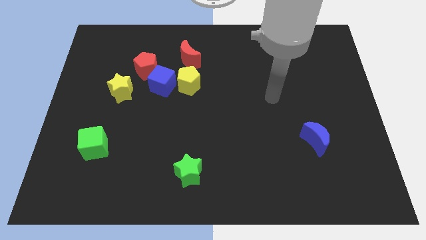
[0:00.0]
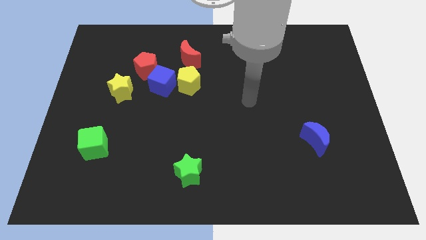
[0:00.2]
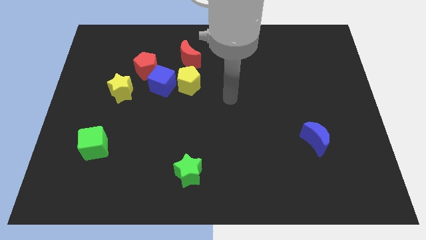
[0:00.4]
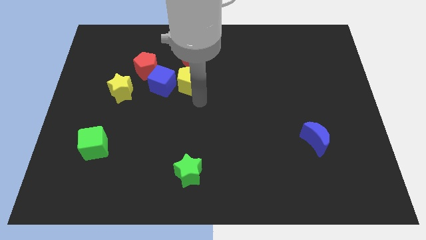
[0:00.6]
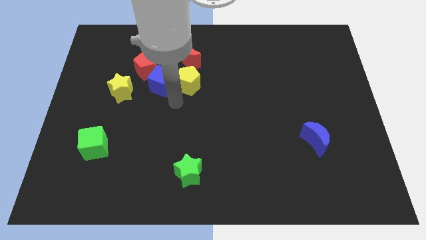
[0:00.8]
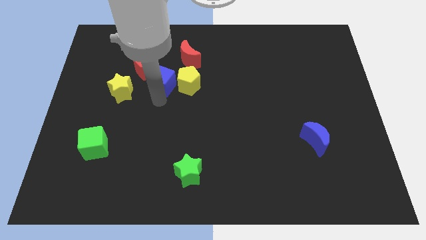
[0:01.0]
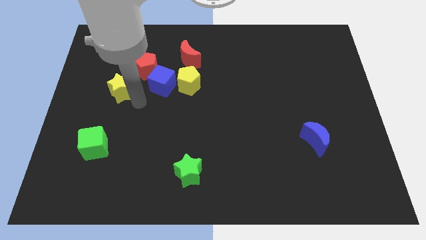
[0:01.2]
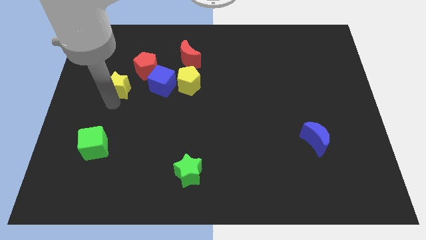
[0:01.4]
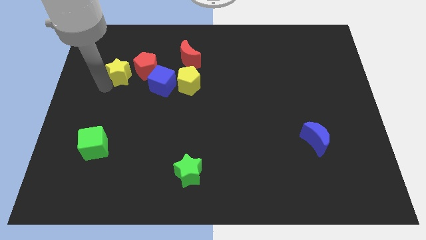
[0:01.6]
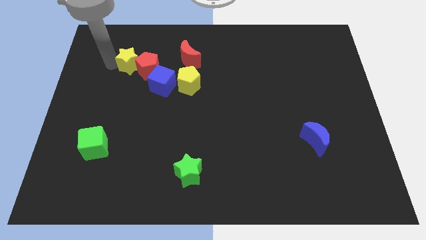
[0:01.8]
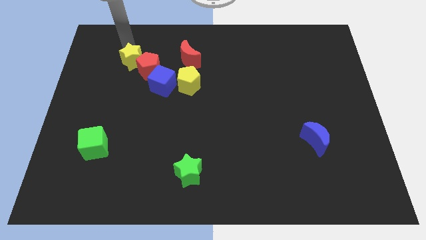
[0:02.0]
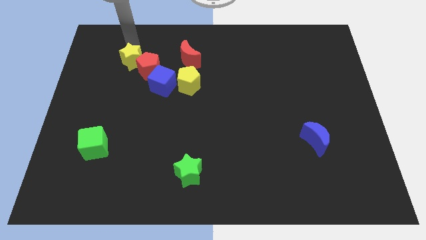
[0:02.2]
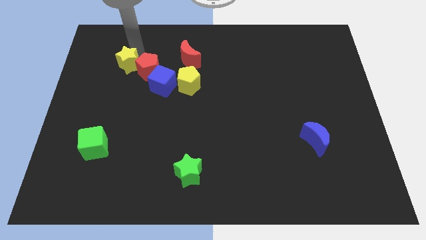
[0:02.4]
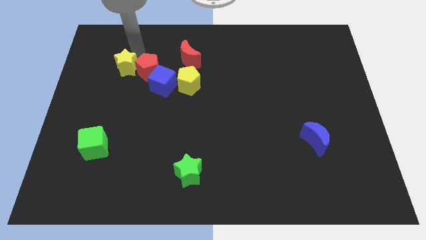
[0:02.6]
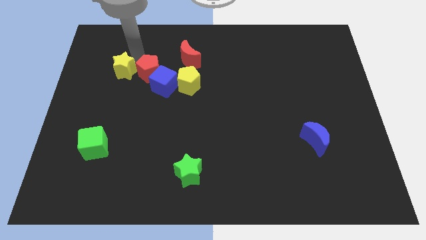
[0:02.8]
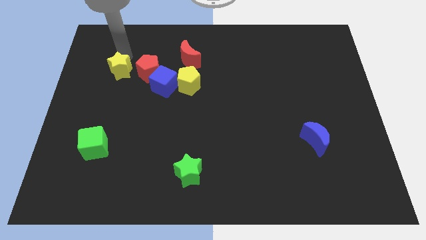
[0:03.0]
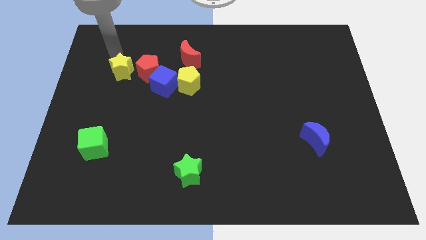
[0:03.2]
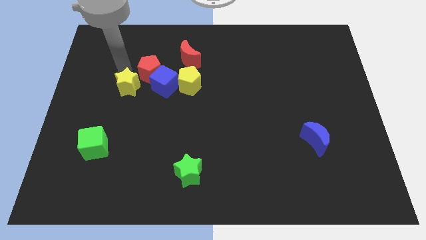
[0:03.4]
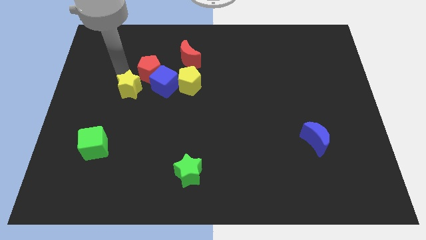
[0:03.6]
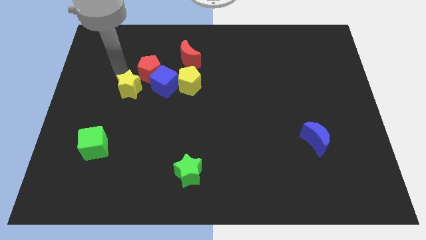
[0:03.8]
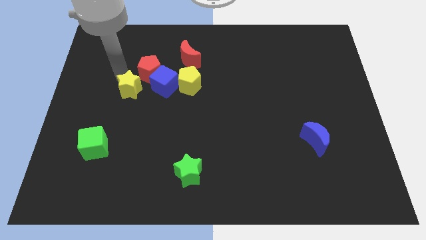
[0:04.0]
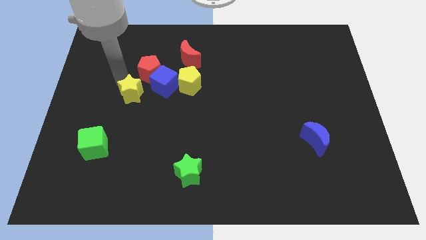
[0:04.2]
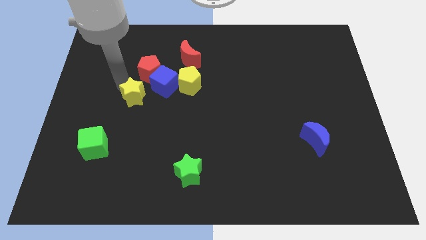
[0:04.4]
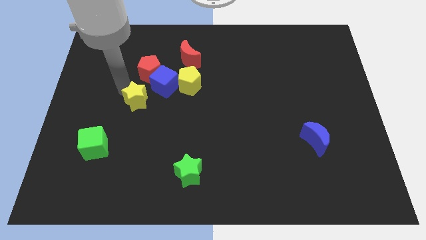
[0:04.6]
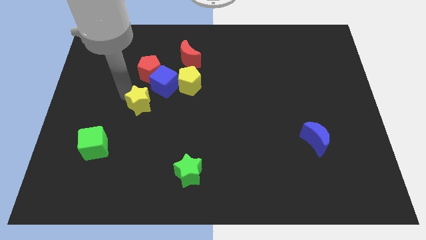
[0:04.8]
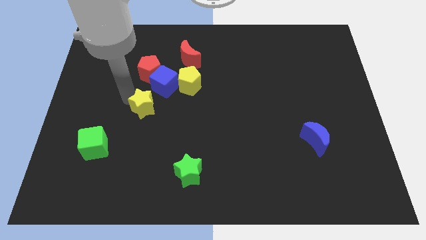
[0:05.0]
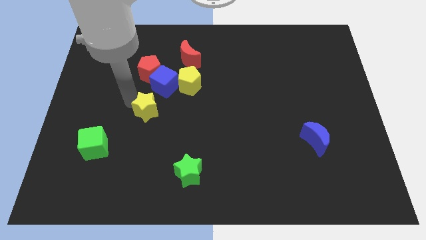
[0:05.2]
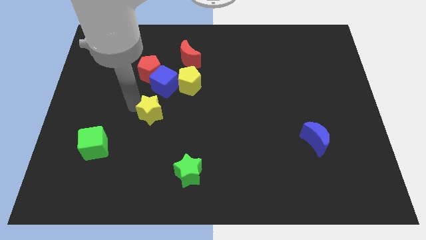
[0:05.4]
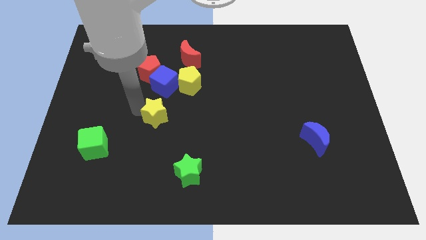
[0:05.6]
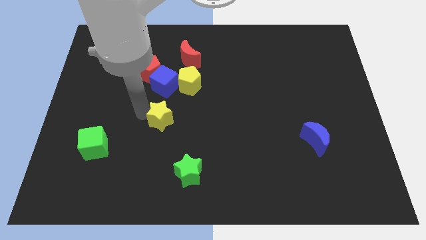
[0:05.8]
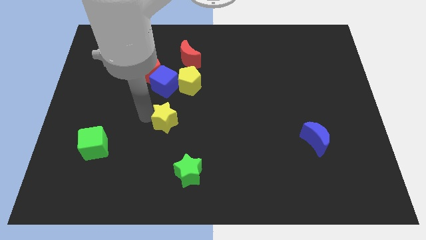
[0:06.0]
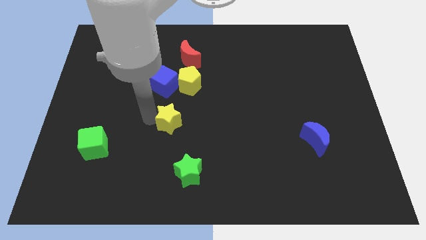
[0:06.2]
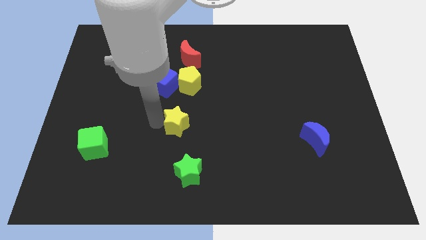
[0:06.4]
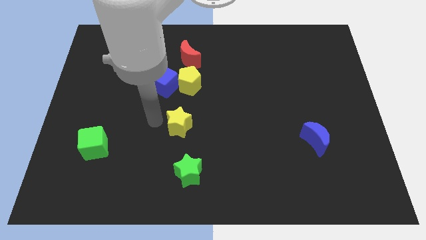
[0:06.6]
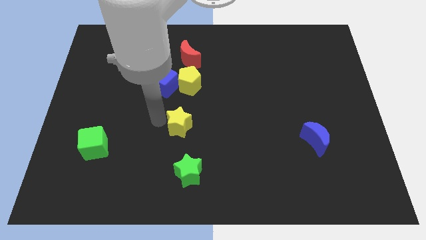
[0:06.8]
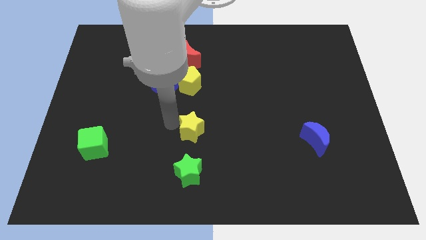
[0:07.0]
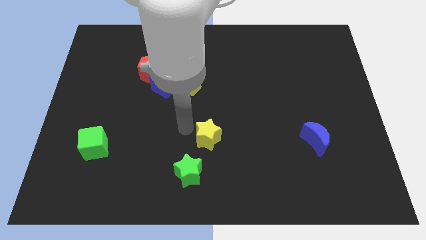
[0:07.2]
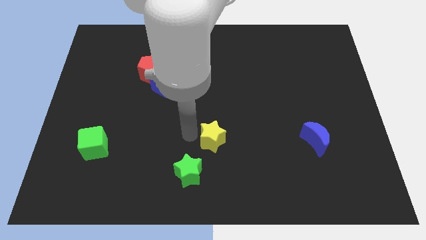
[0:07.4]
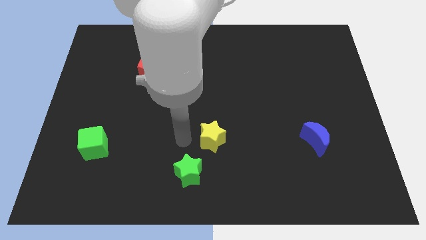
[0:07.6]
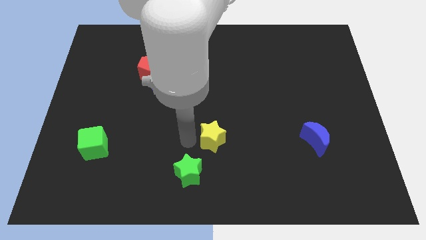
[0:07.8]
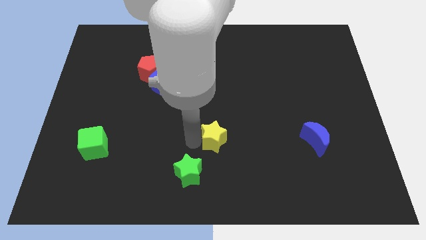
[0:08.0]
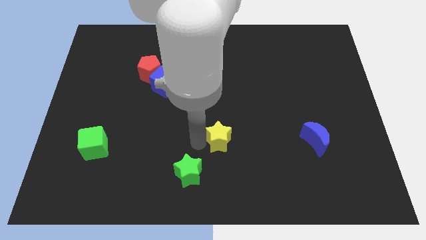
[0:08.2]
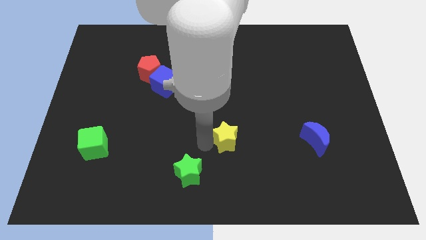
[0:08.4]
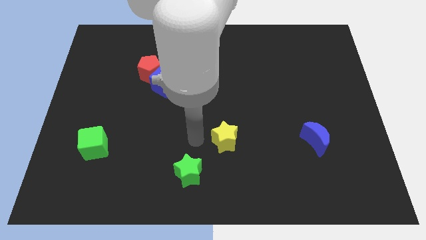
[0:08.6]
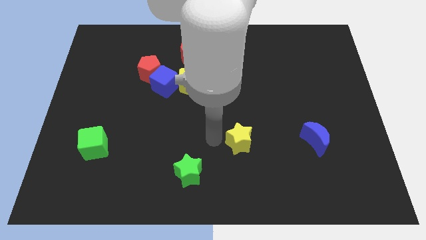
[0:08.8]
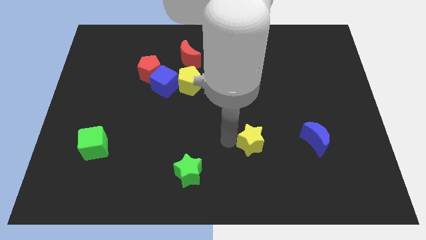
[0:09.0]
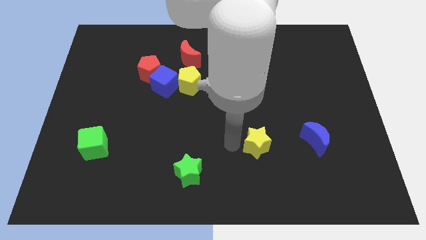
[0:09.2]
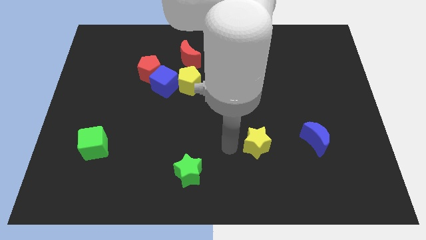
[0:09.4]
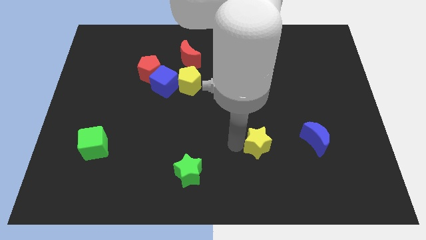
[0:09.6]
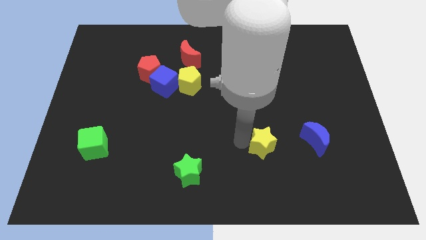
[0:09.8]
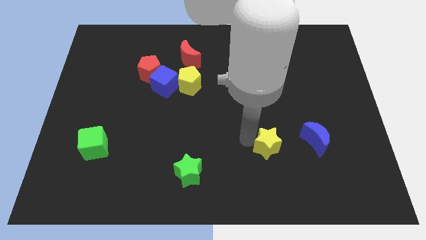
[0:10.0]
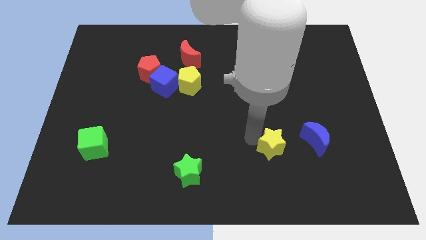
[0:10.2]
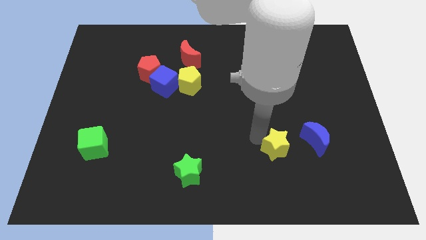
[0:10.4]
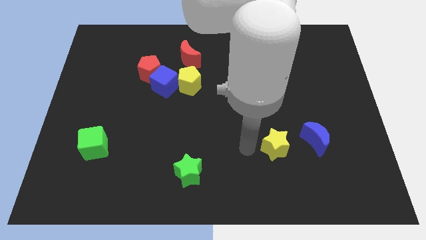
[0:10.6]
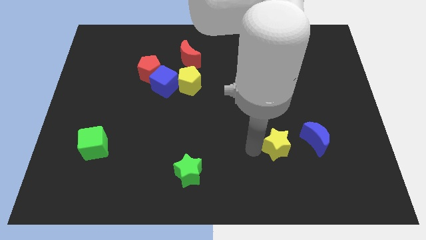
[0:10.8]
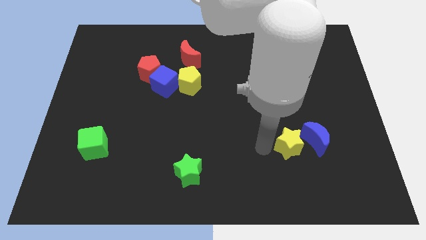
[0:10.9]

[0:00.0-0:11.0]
move the yellow star to the blue moon

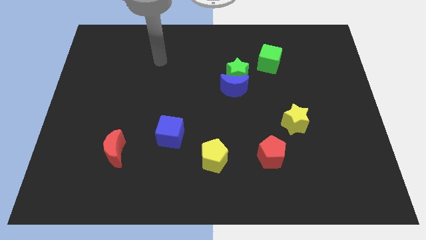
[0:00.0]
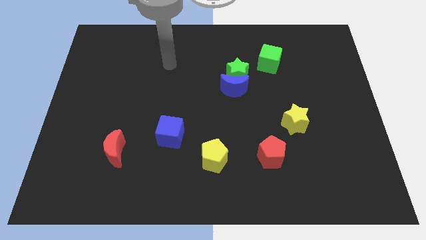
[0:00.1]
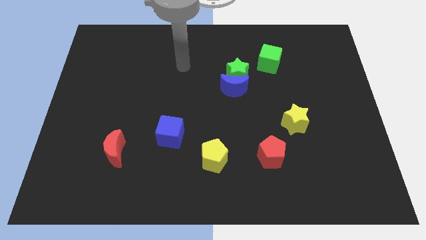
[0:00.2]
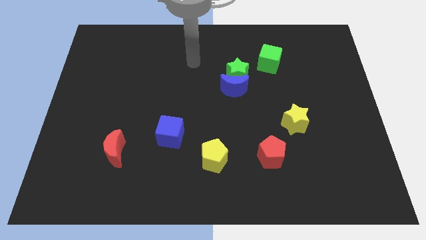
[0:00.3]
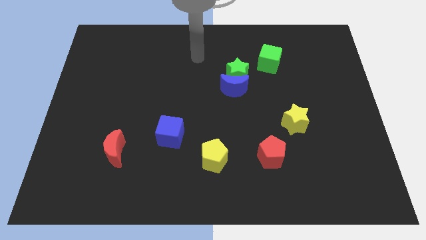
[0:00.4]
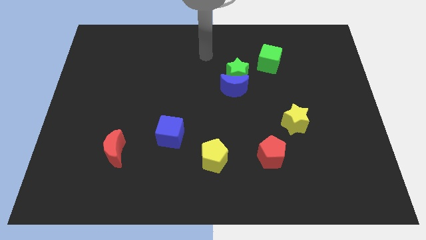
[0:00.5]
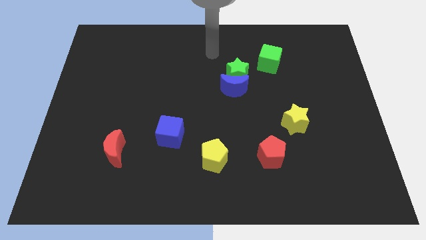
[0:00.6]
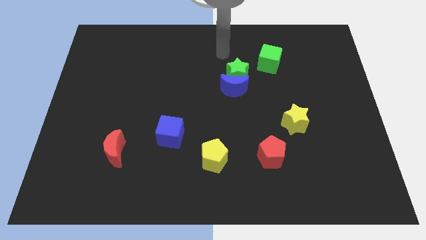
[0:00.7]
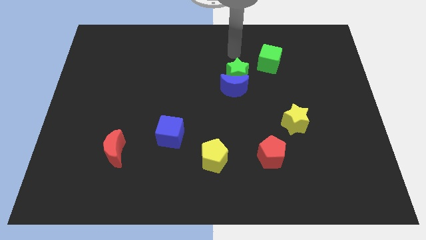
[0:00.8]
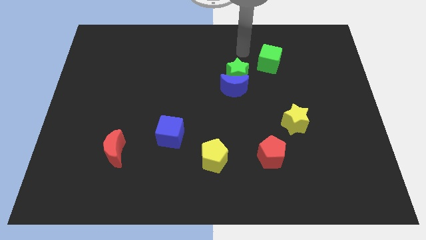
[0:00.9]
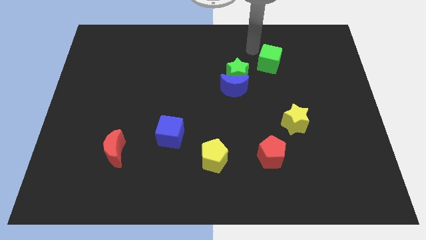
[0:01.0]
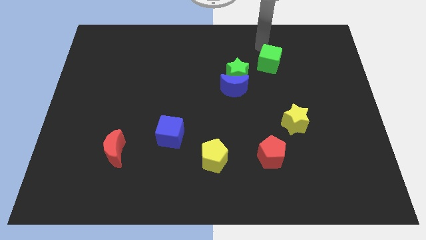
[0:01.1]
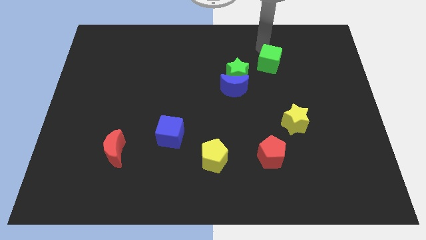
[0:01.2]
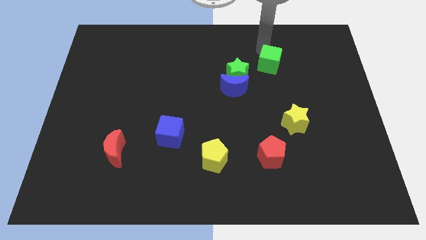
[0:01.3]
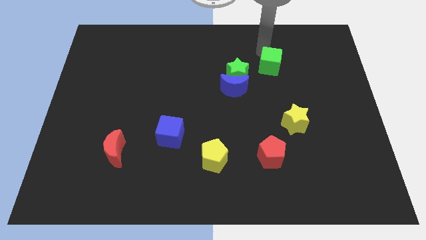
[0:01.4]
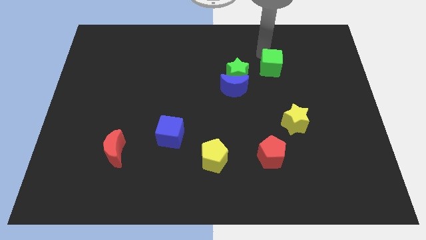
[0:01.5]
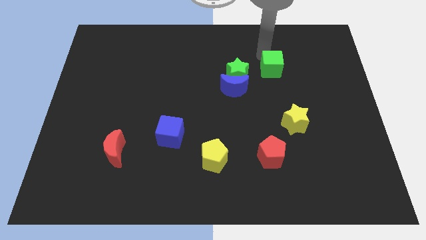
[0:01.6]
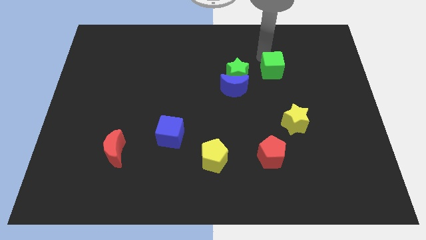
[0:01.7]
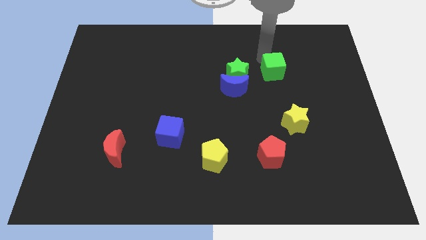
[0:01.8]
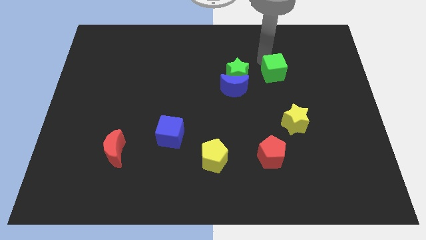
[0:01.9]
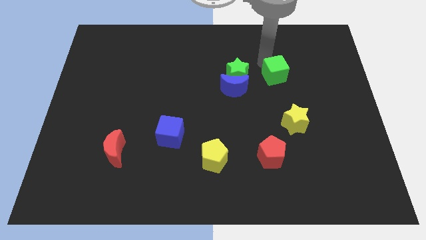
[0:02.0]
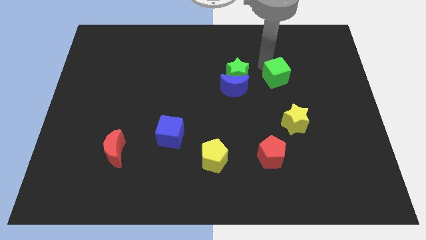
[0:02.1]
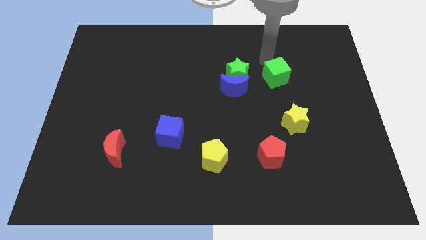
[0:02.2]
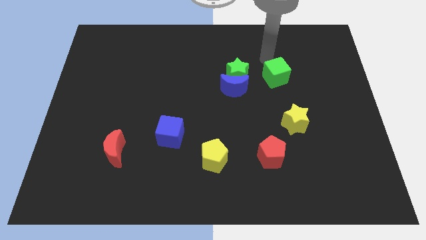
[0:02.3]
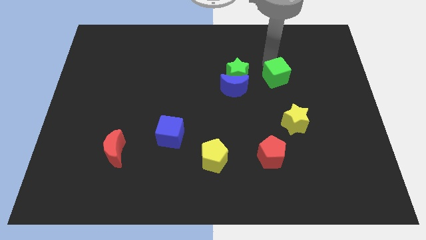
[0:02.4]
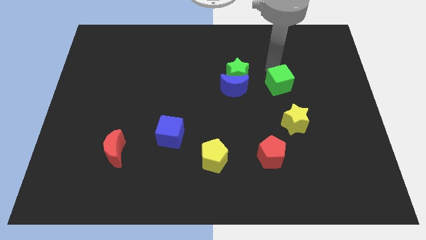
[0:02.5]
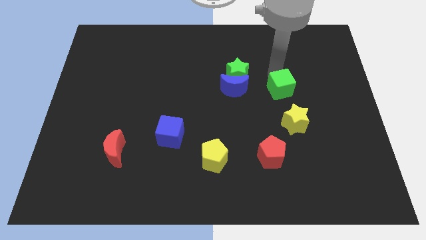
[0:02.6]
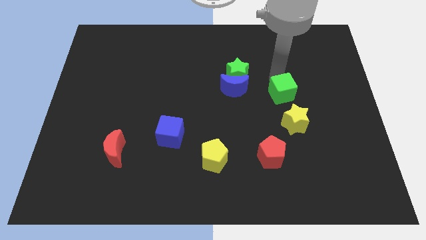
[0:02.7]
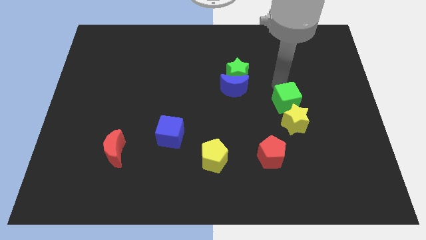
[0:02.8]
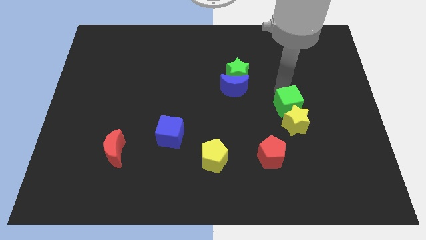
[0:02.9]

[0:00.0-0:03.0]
move the green cube next to the yellow star
